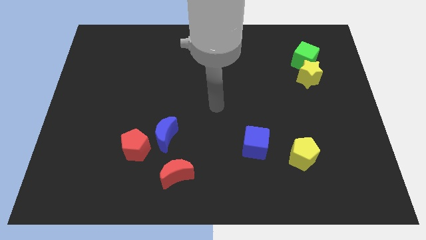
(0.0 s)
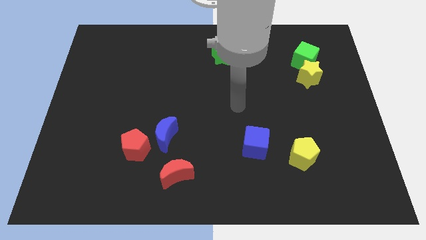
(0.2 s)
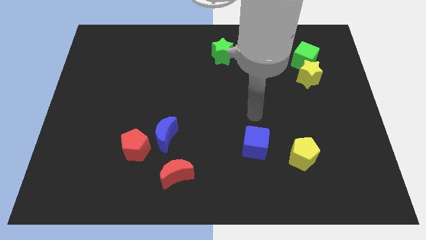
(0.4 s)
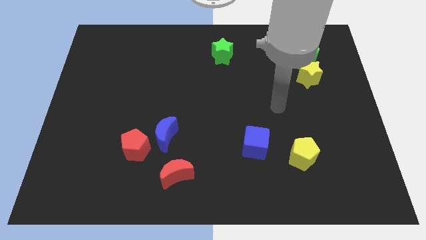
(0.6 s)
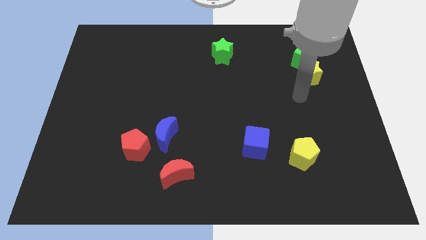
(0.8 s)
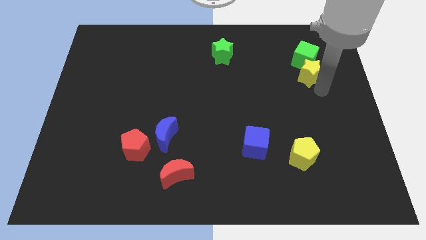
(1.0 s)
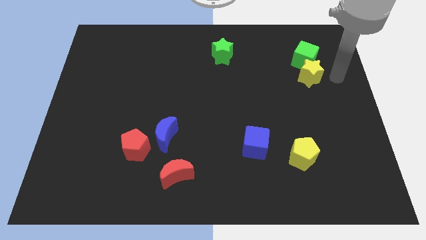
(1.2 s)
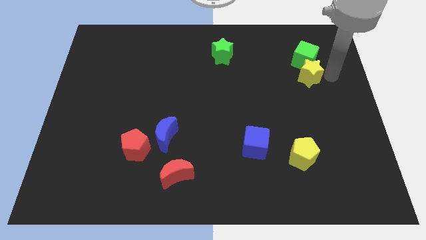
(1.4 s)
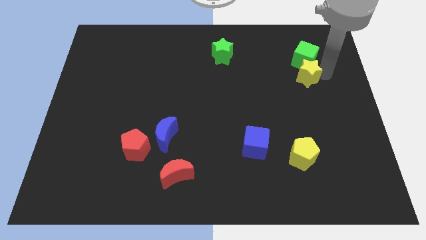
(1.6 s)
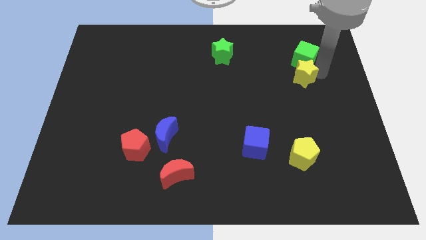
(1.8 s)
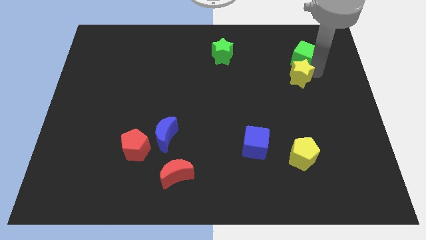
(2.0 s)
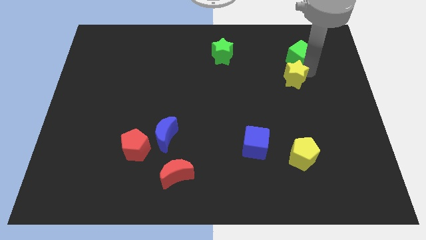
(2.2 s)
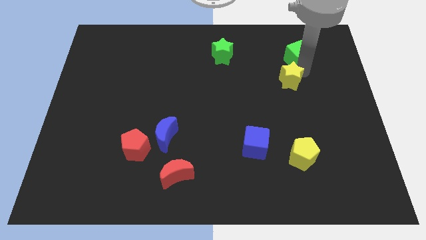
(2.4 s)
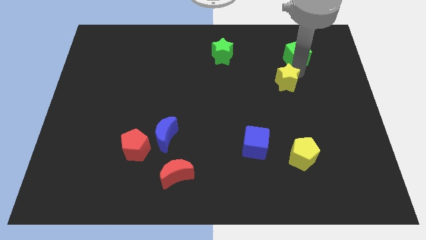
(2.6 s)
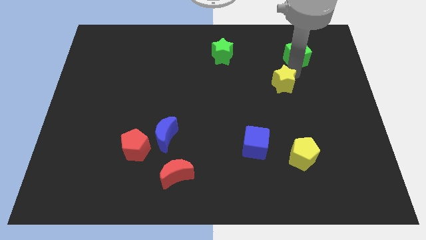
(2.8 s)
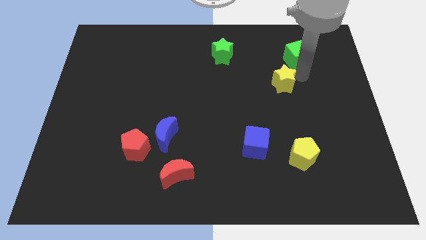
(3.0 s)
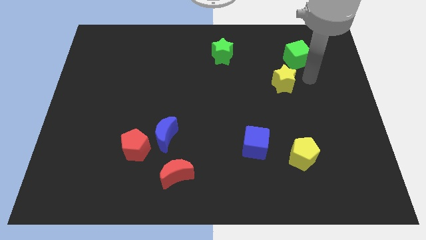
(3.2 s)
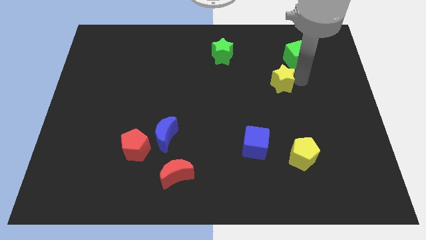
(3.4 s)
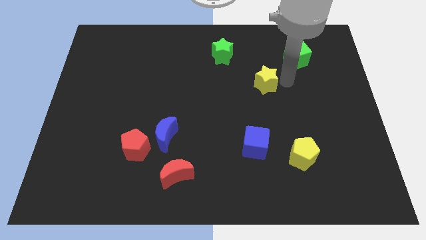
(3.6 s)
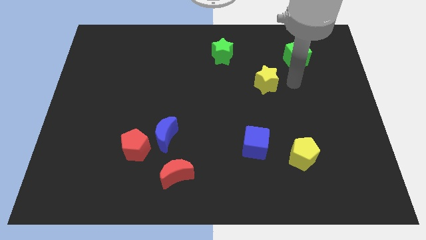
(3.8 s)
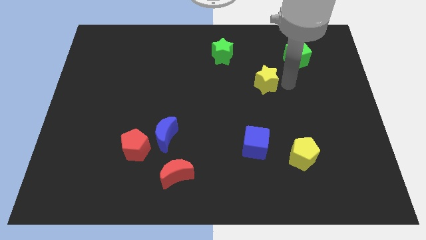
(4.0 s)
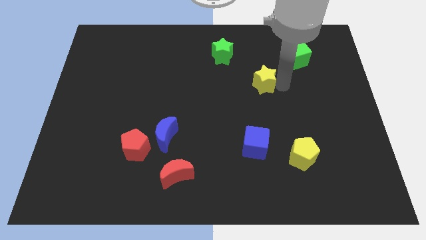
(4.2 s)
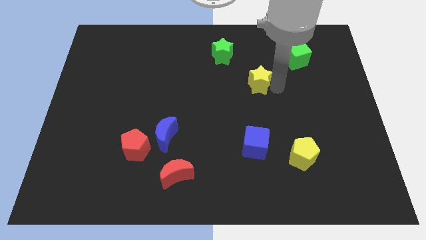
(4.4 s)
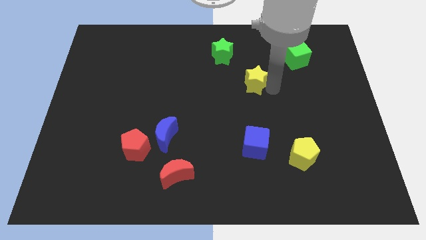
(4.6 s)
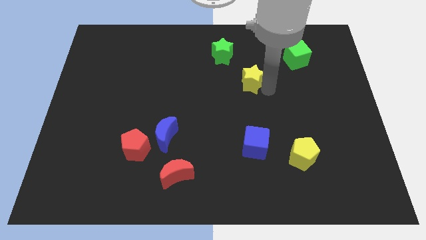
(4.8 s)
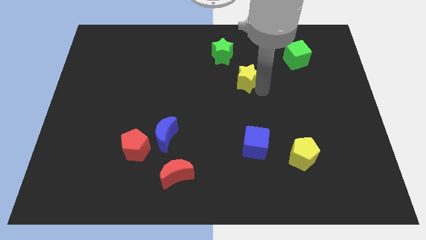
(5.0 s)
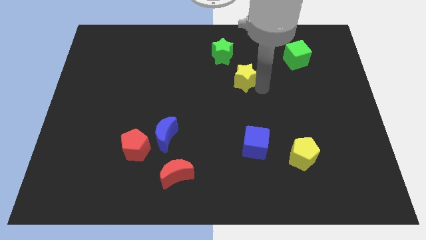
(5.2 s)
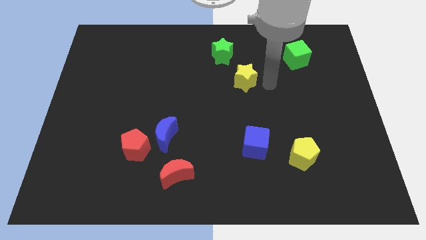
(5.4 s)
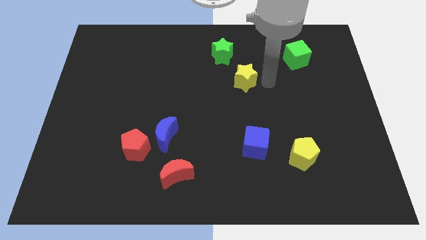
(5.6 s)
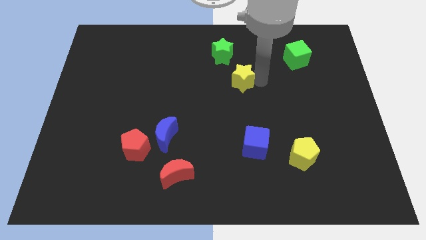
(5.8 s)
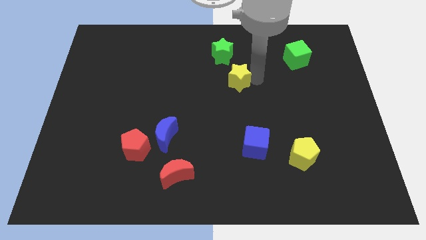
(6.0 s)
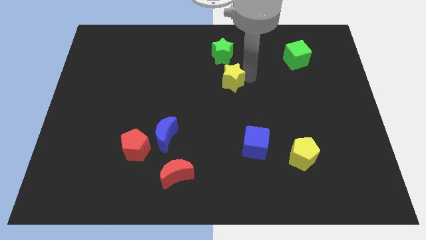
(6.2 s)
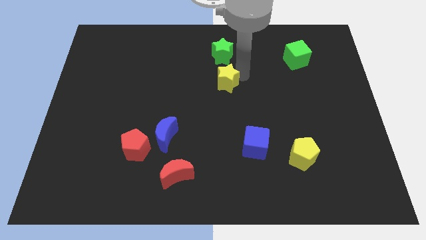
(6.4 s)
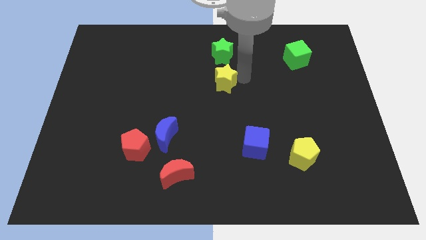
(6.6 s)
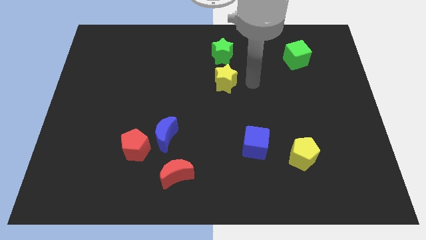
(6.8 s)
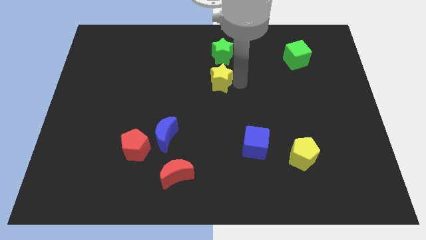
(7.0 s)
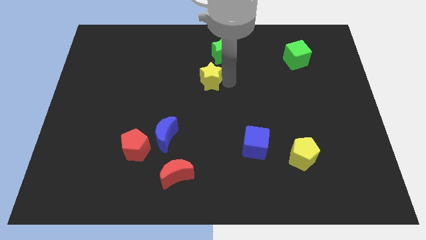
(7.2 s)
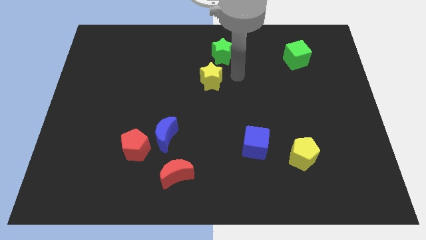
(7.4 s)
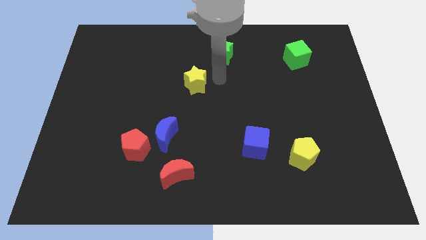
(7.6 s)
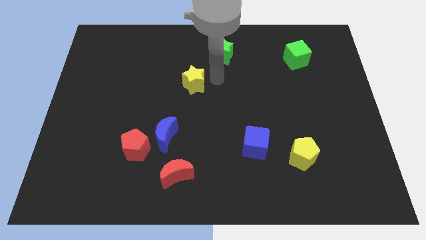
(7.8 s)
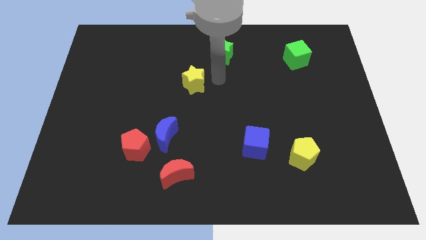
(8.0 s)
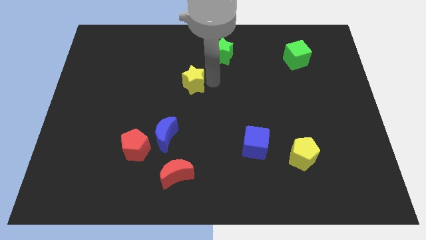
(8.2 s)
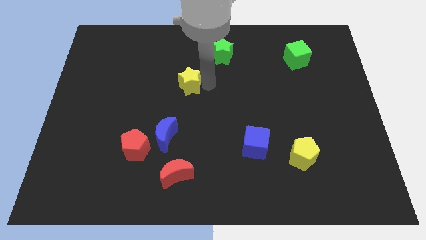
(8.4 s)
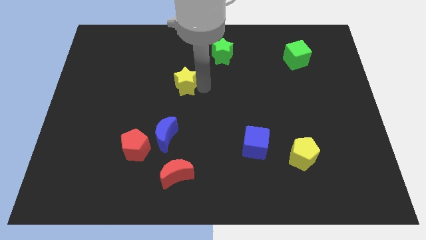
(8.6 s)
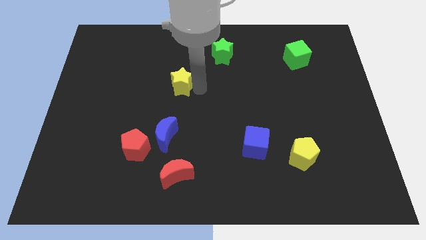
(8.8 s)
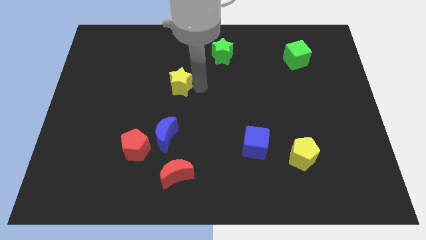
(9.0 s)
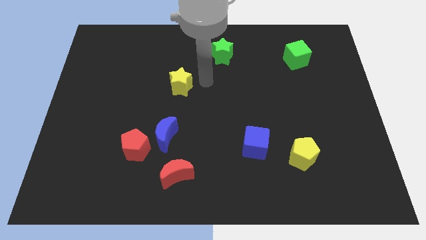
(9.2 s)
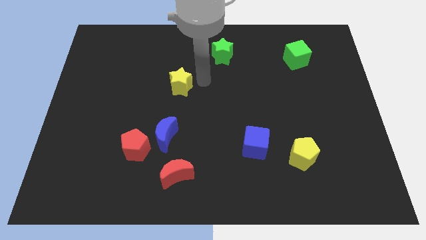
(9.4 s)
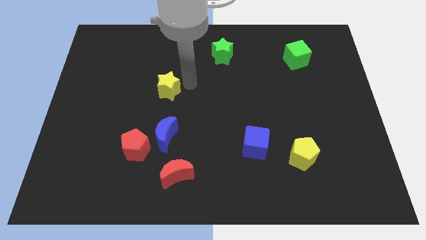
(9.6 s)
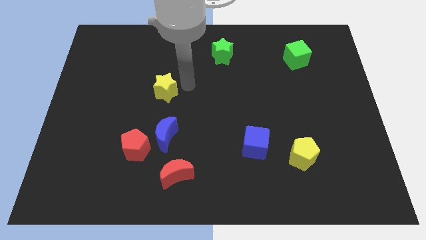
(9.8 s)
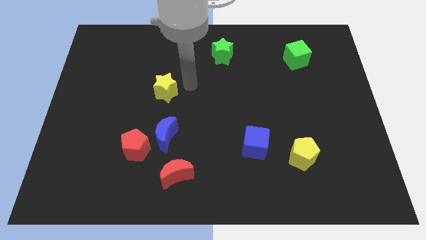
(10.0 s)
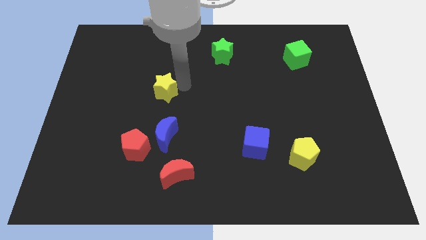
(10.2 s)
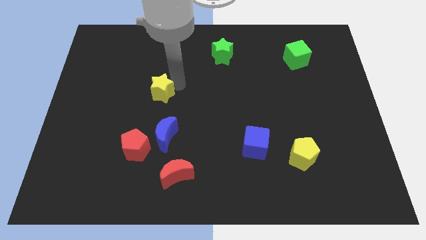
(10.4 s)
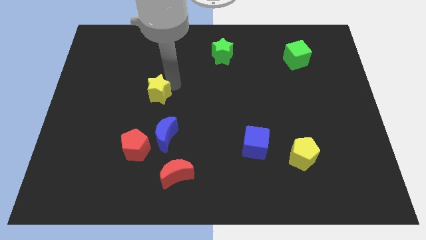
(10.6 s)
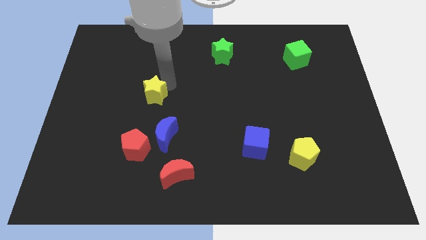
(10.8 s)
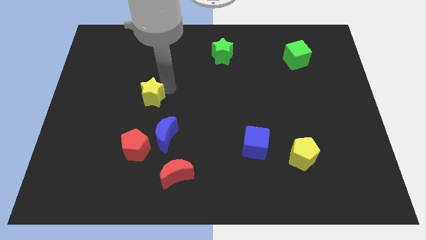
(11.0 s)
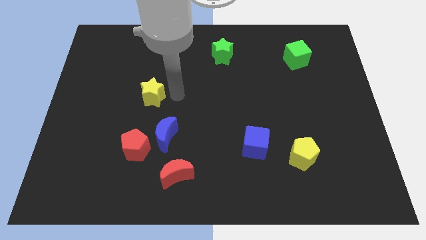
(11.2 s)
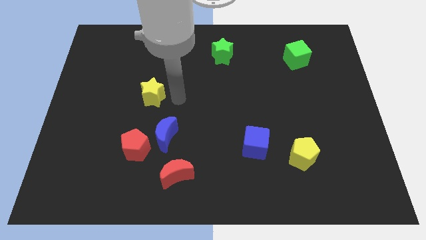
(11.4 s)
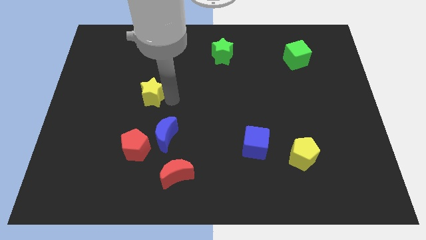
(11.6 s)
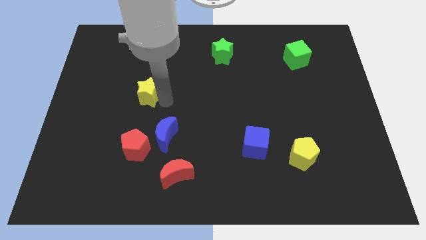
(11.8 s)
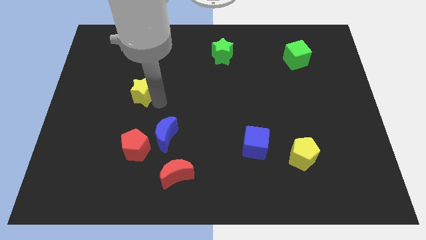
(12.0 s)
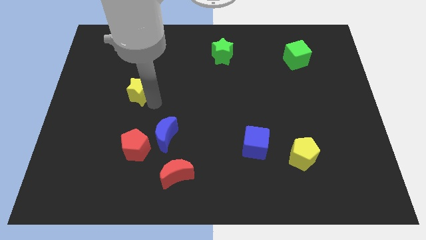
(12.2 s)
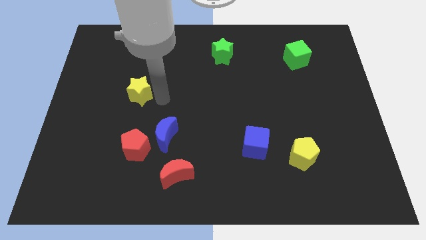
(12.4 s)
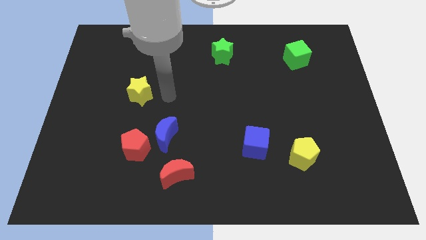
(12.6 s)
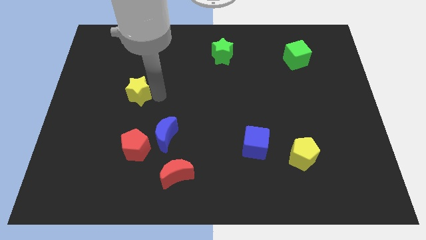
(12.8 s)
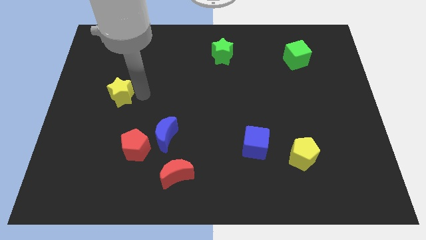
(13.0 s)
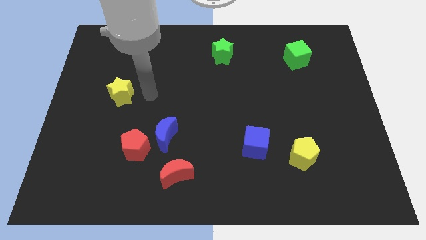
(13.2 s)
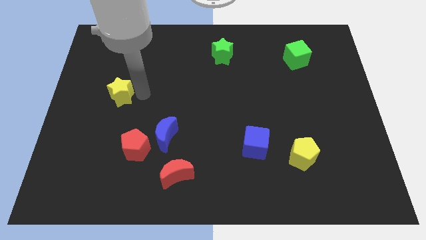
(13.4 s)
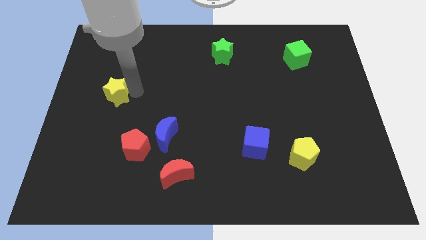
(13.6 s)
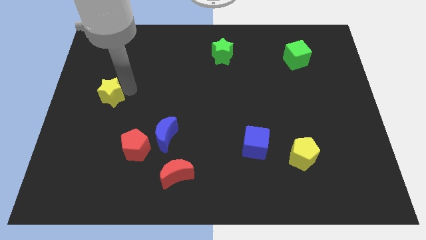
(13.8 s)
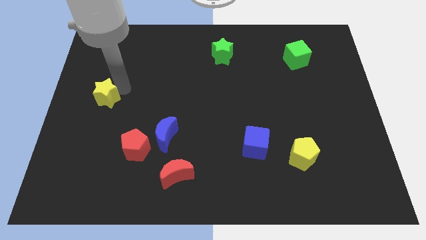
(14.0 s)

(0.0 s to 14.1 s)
slide the yellow star to the center left
